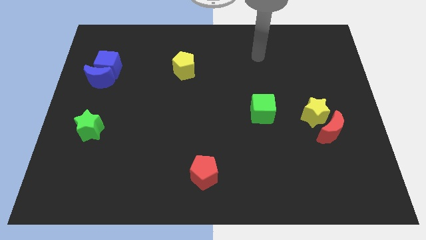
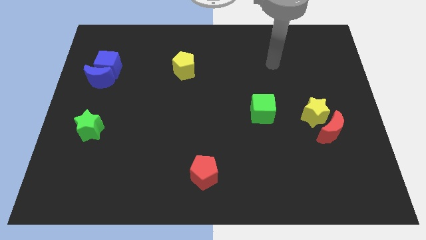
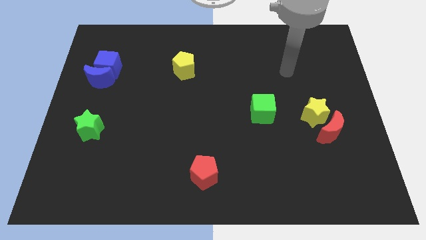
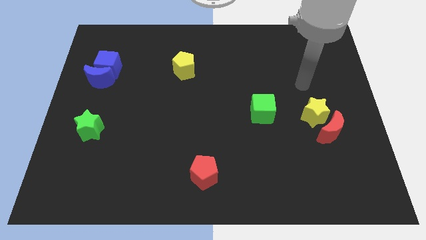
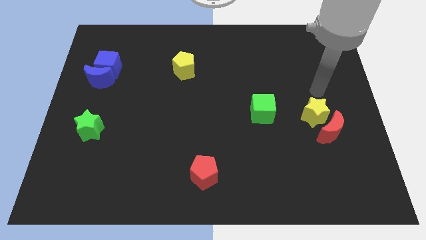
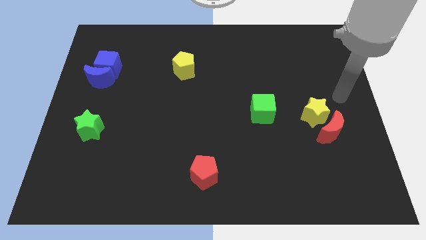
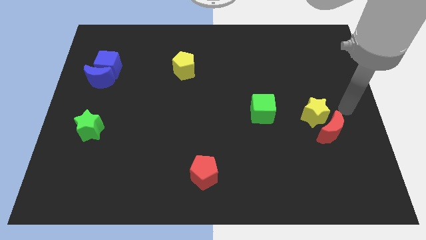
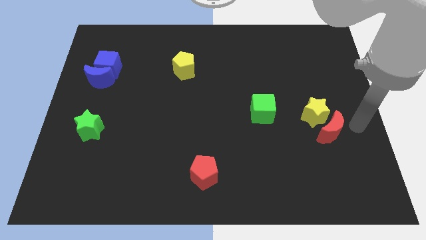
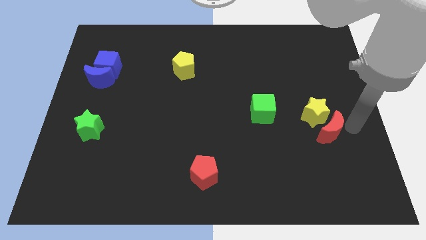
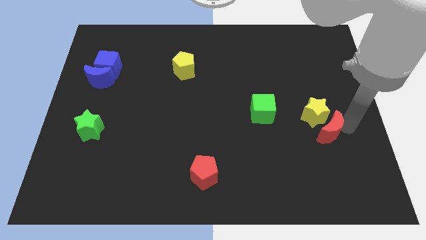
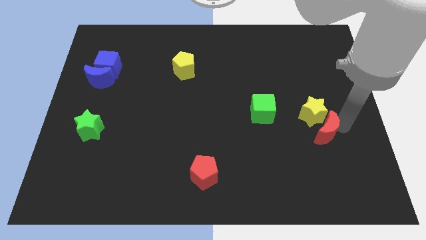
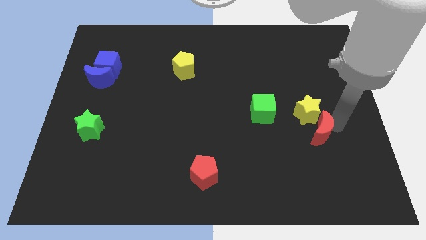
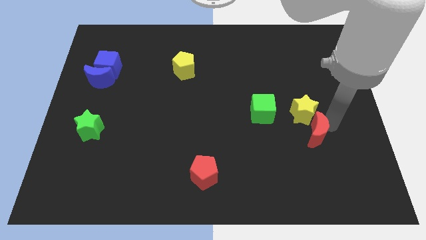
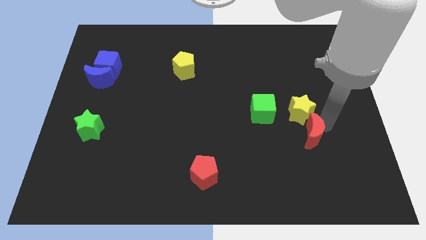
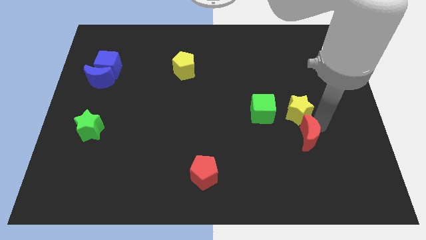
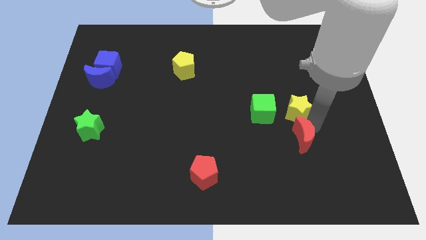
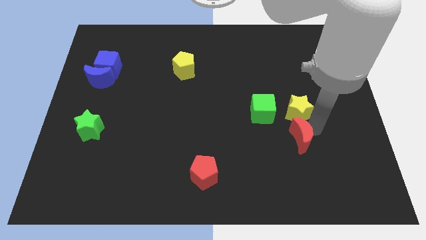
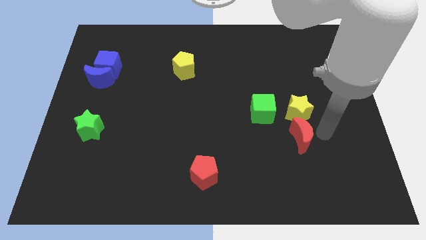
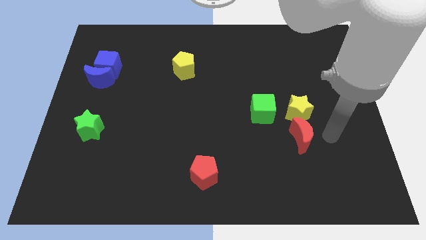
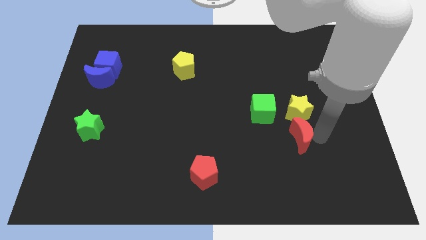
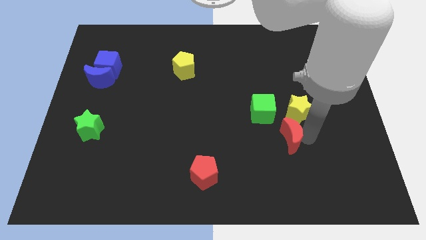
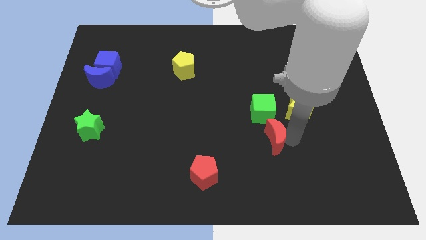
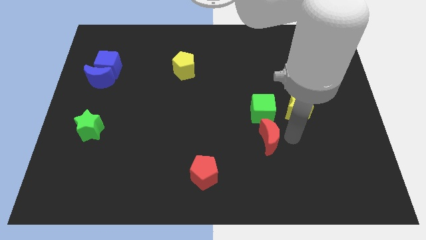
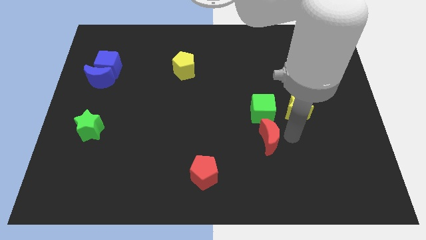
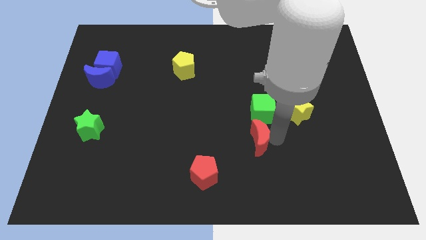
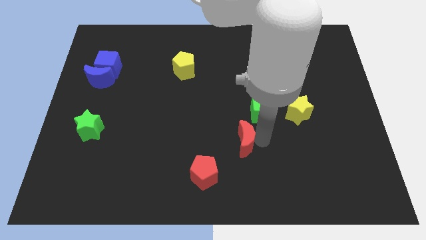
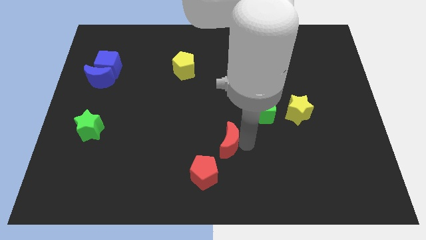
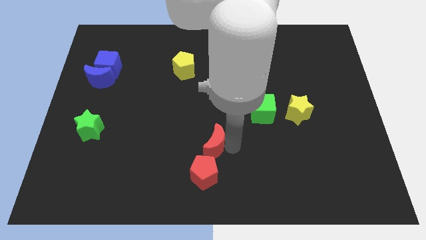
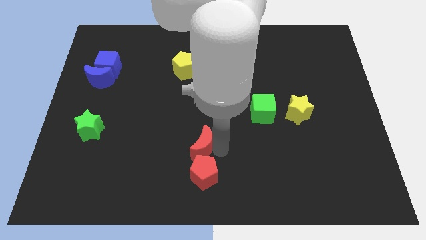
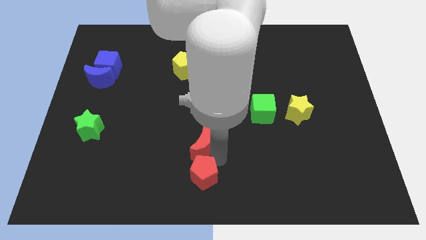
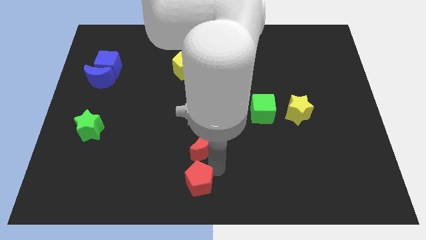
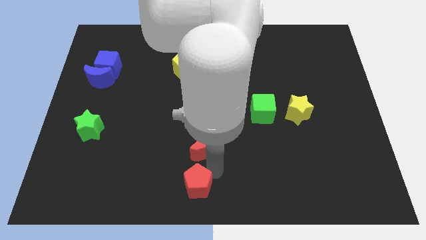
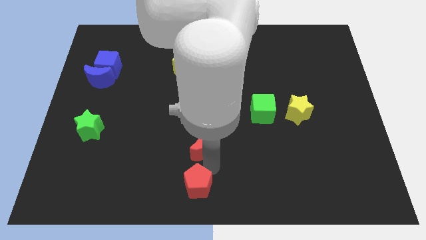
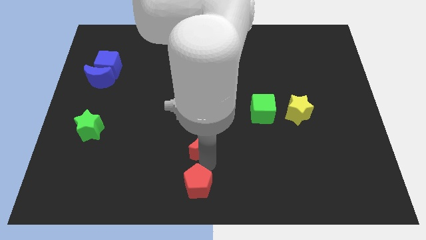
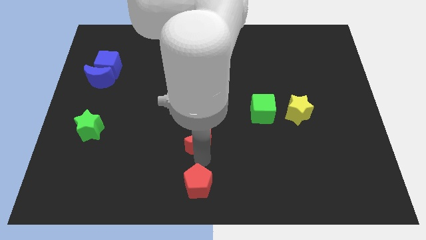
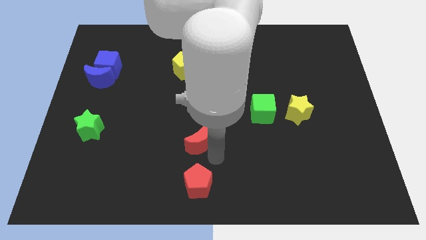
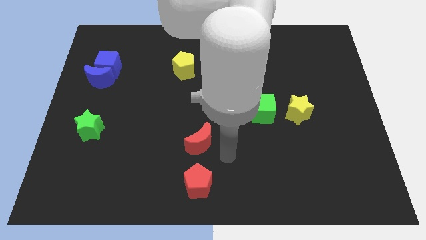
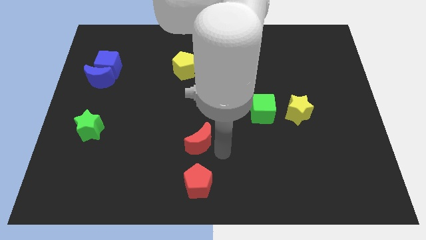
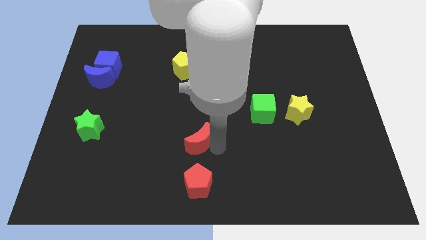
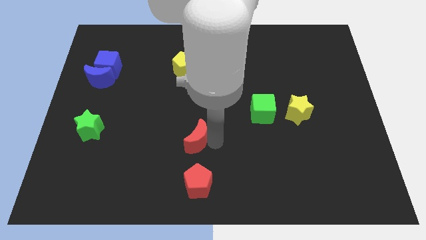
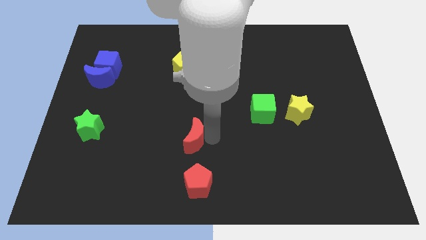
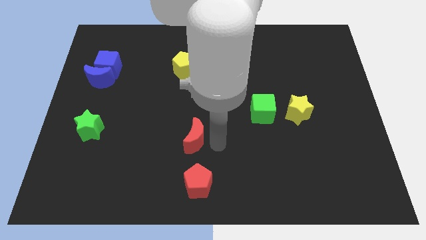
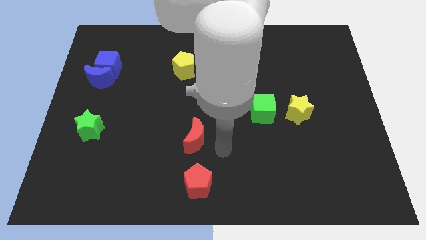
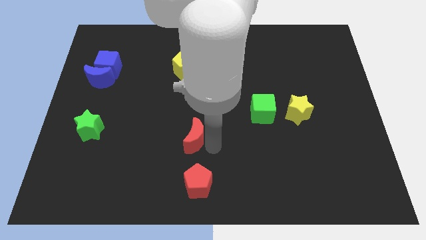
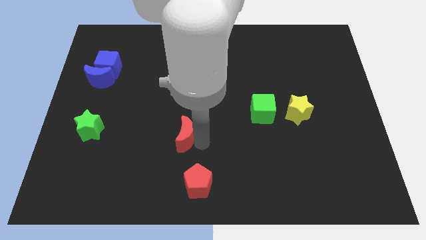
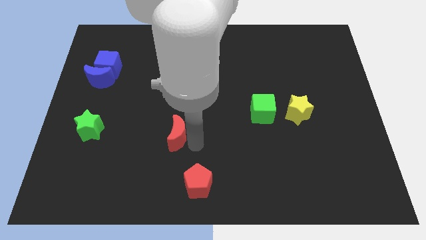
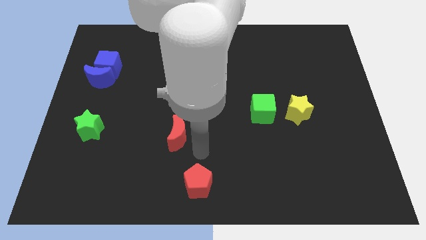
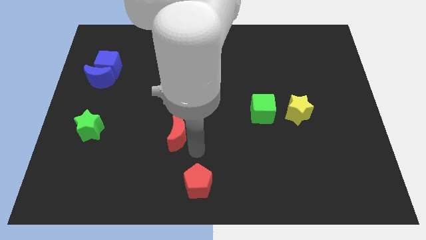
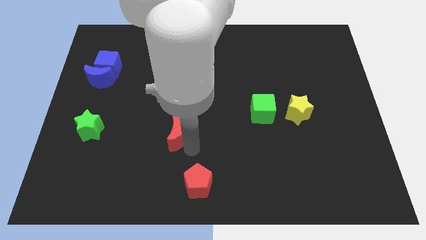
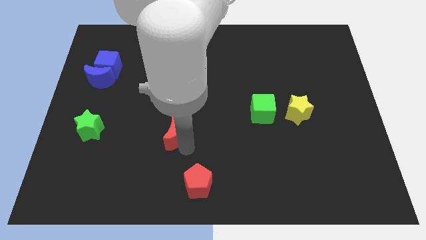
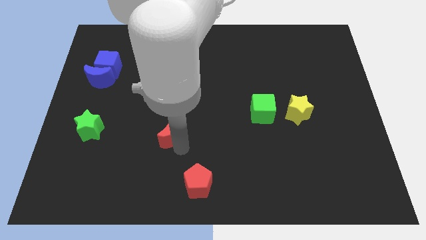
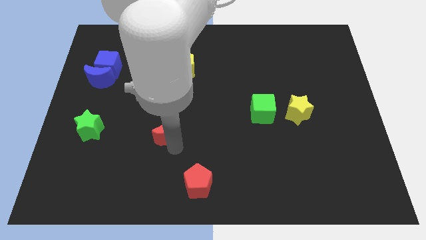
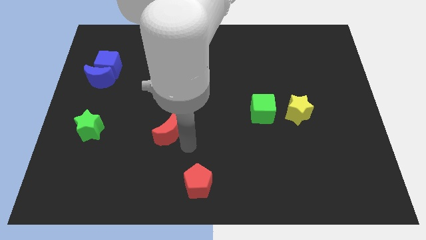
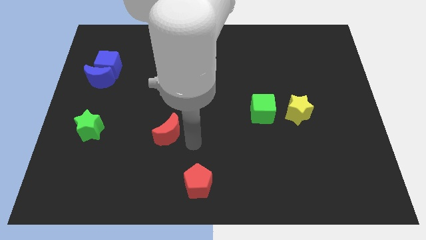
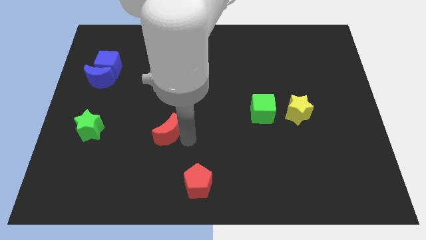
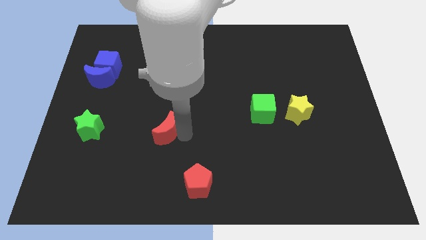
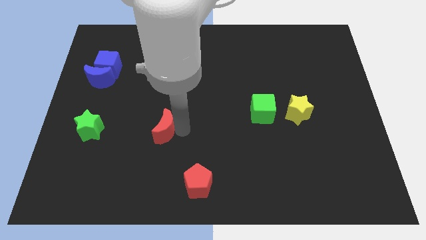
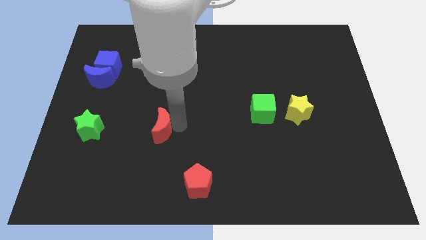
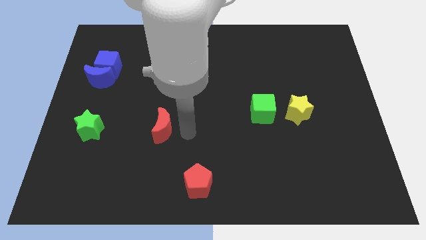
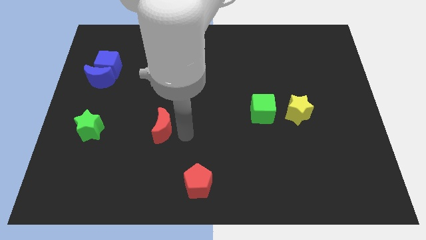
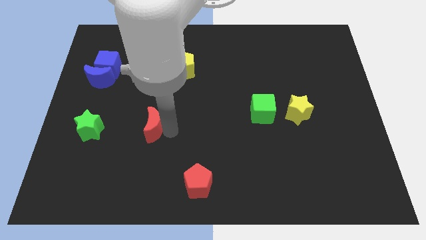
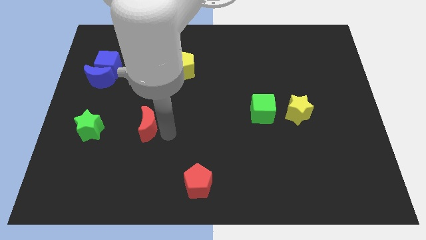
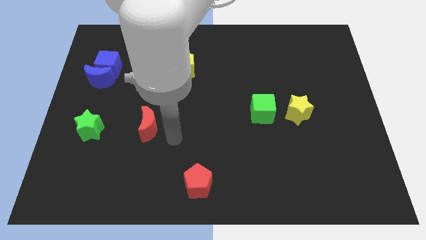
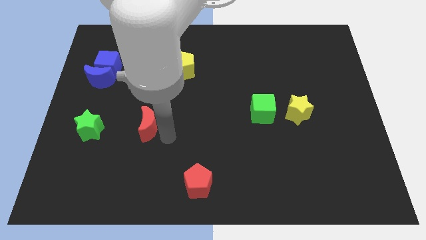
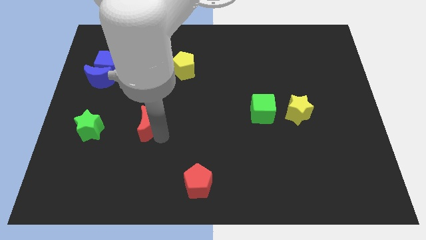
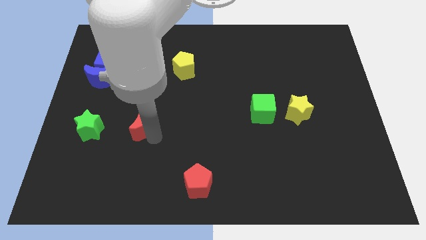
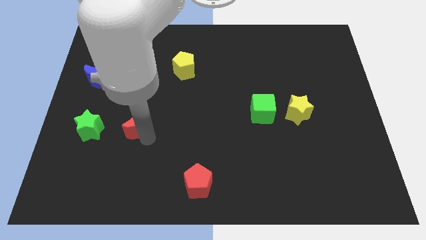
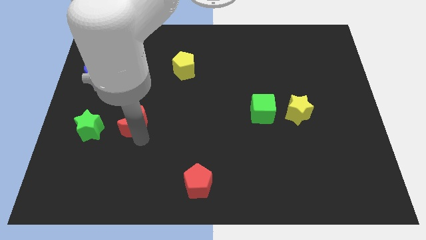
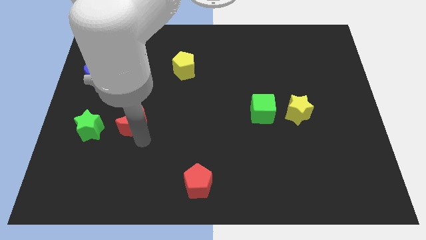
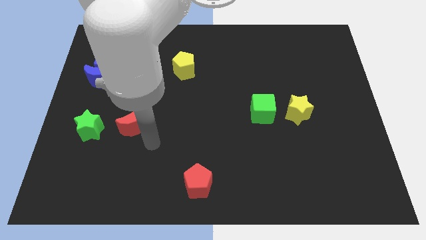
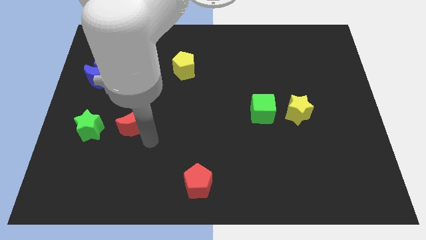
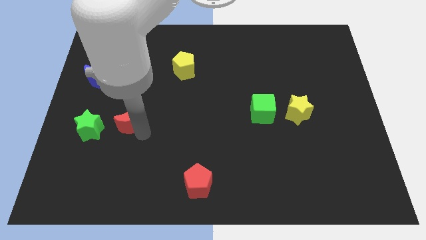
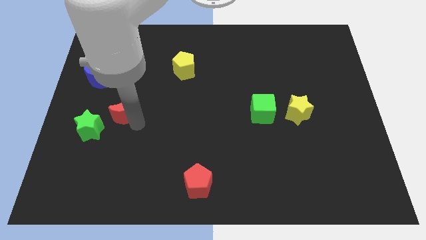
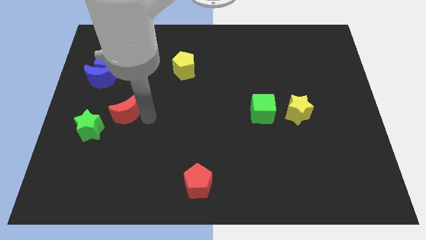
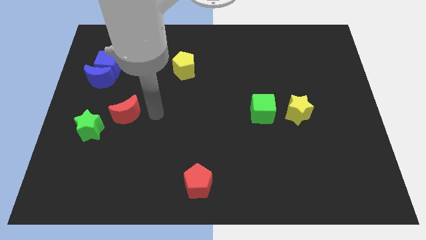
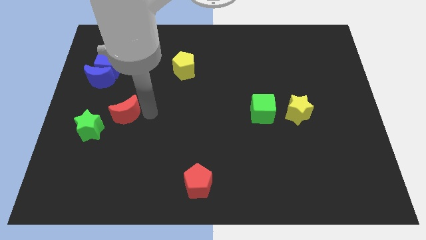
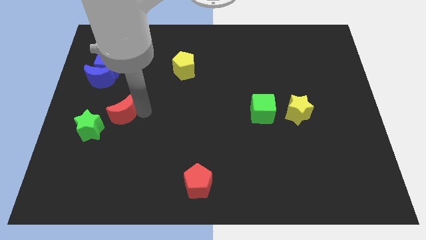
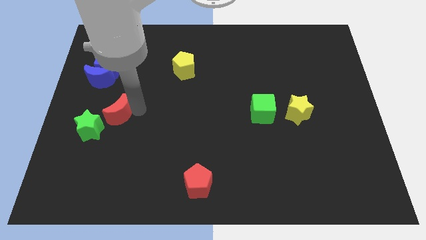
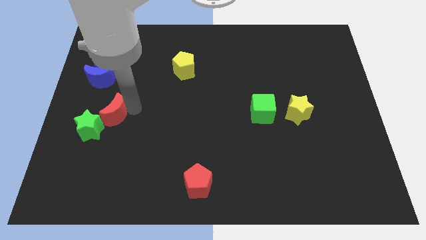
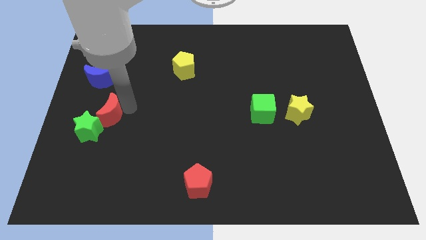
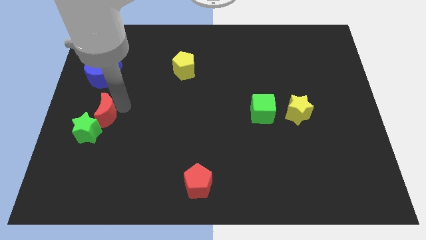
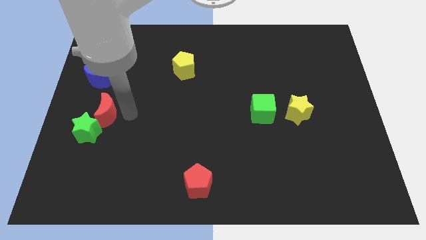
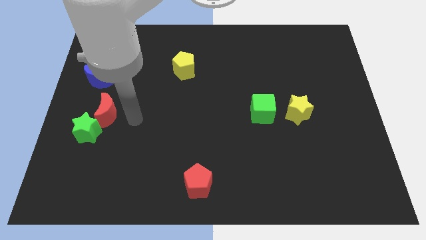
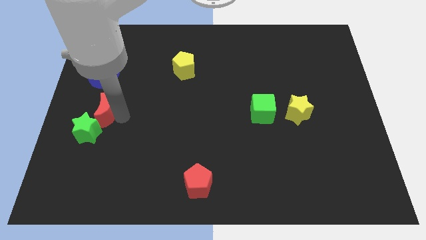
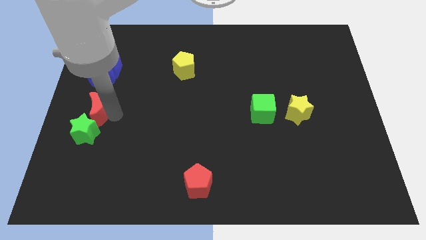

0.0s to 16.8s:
put the red moon to the left side of the board
